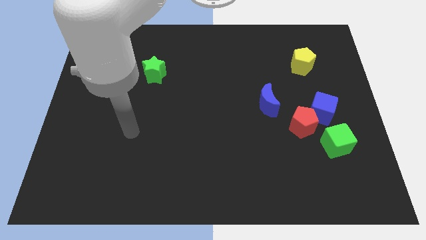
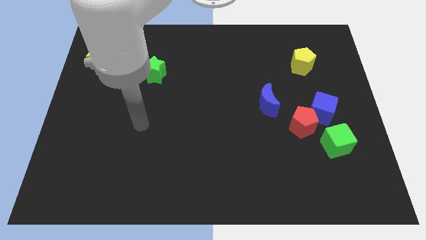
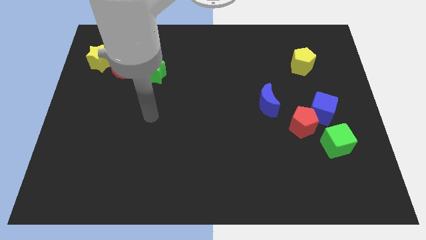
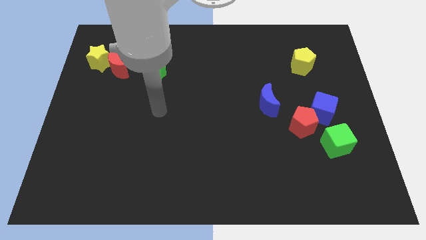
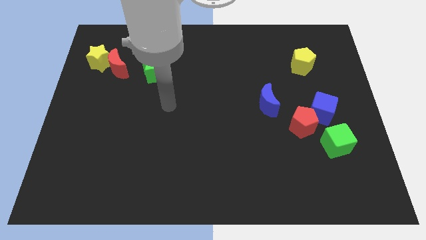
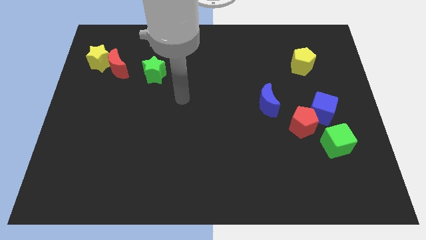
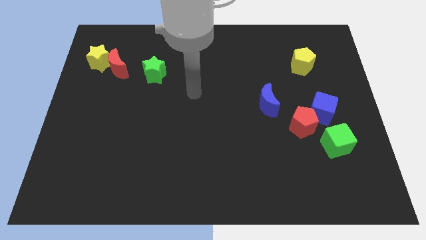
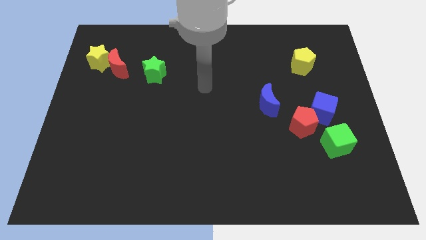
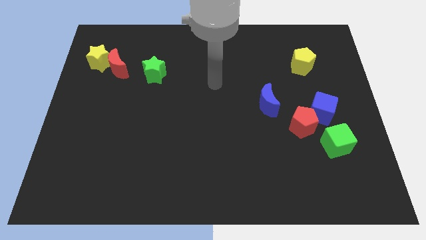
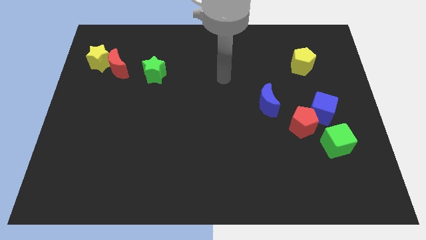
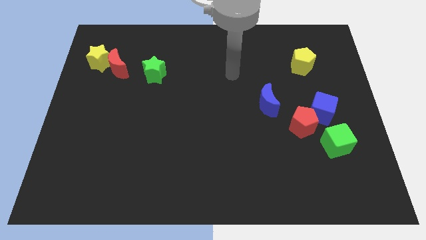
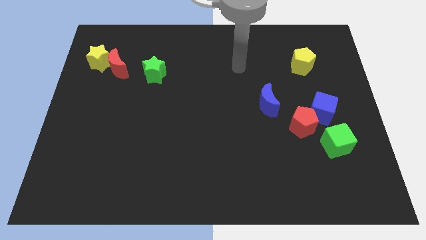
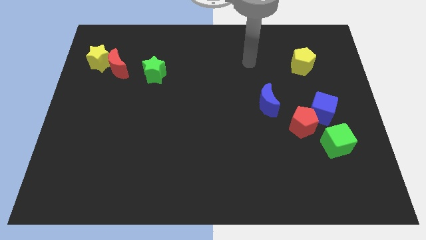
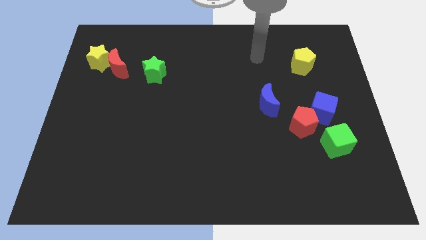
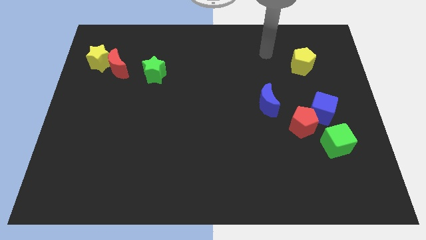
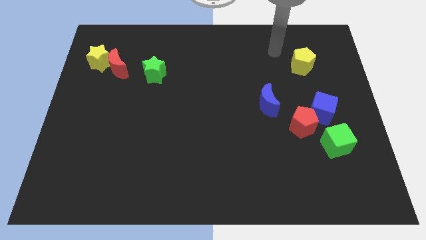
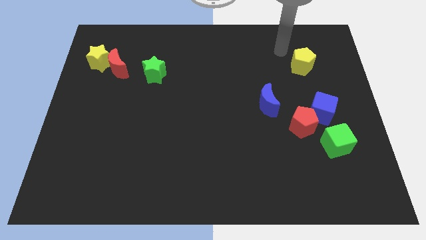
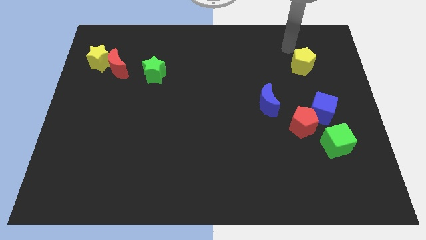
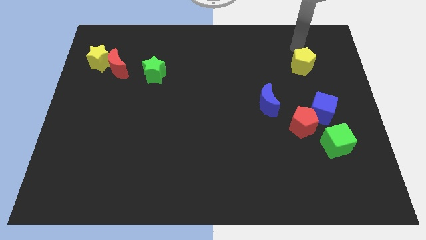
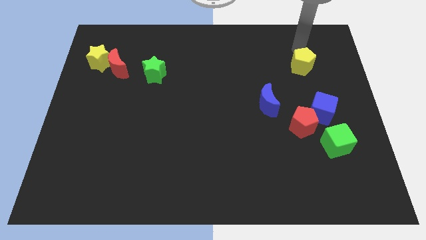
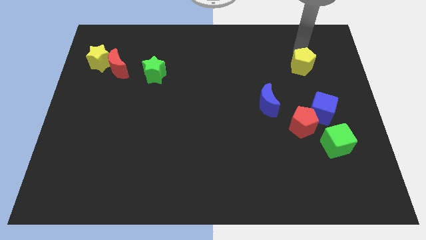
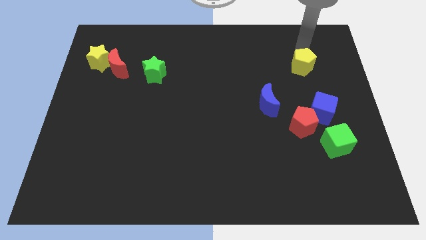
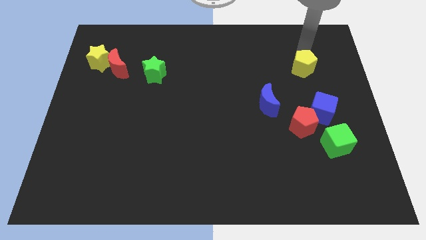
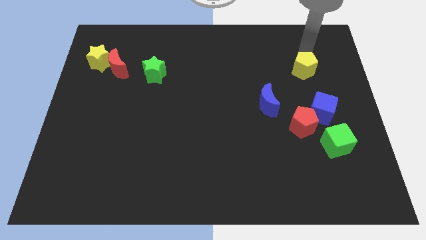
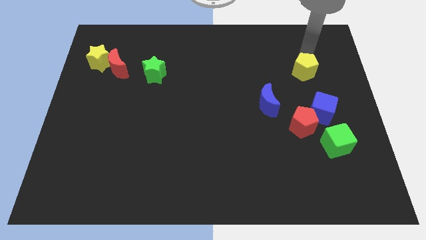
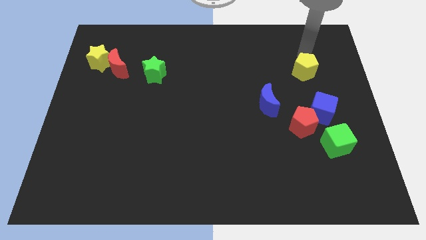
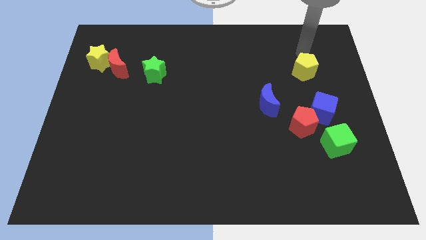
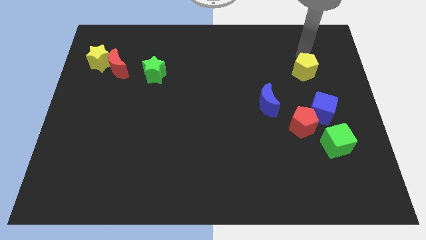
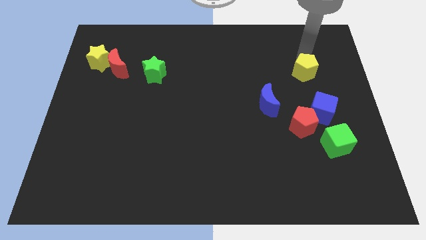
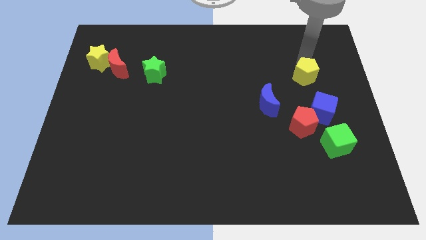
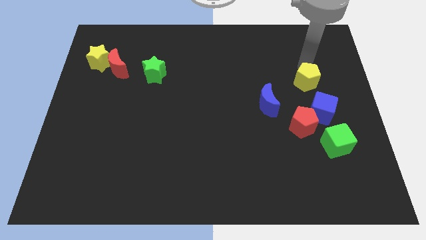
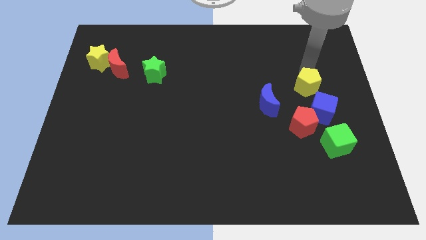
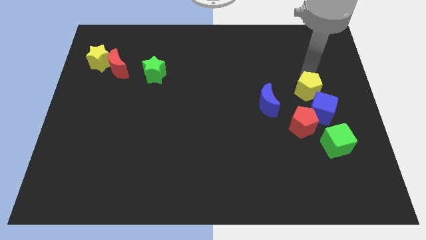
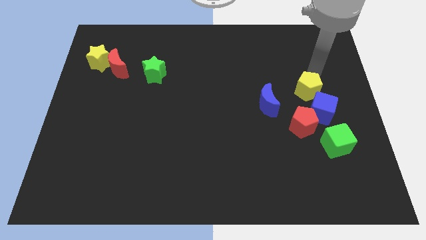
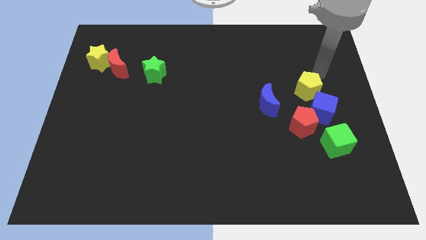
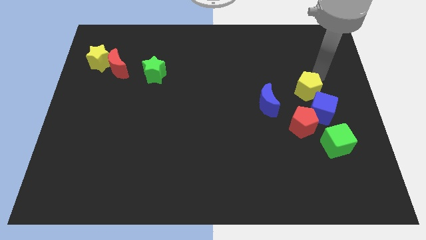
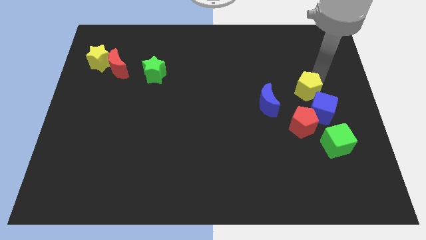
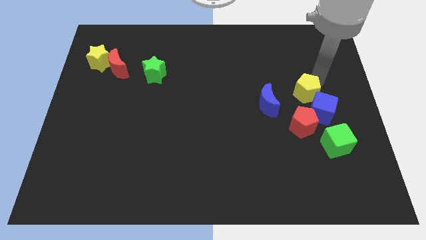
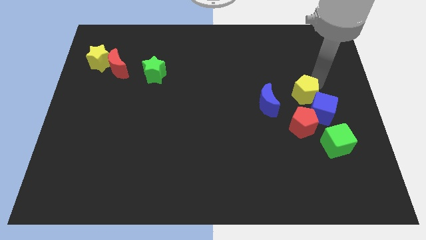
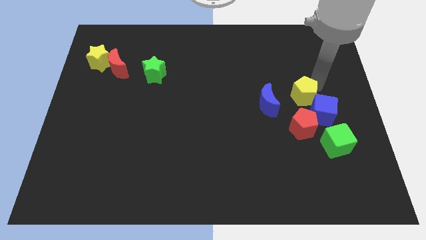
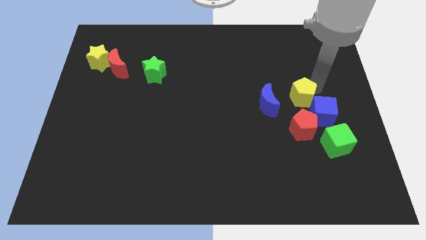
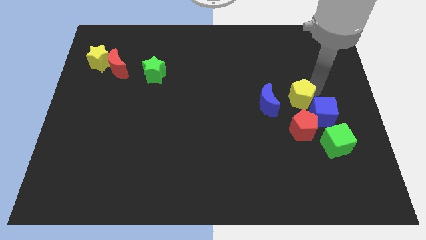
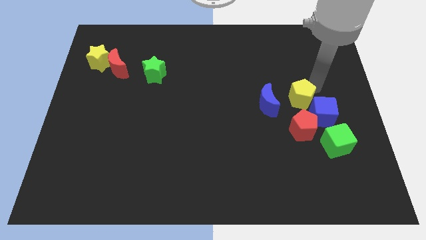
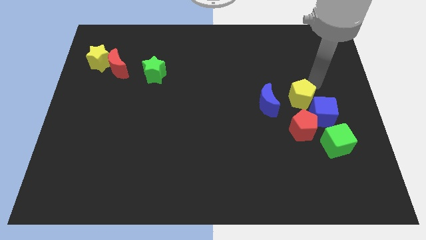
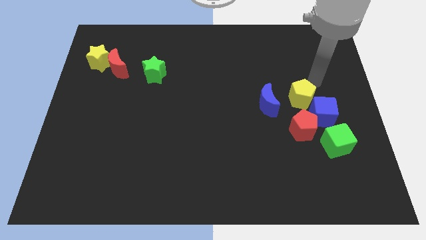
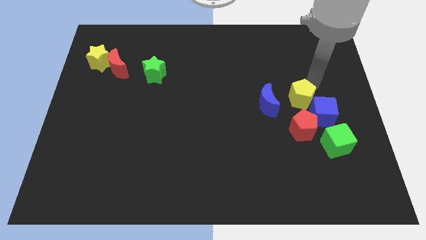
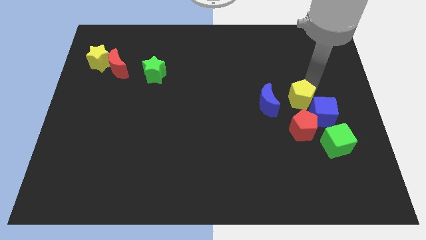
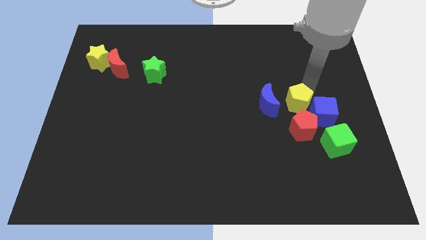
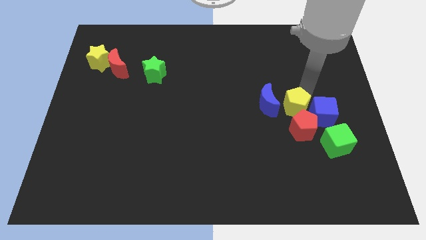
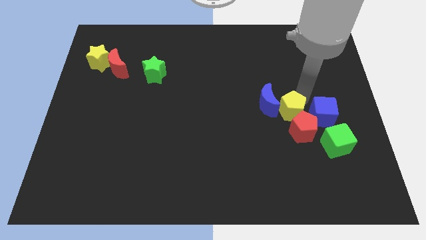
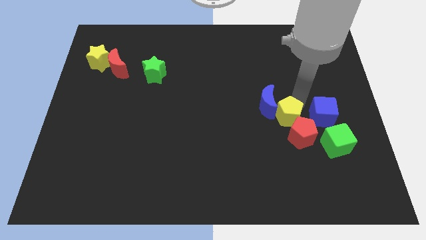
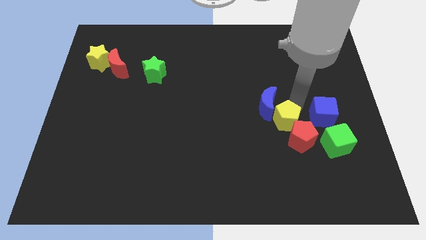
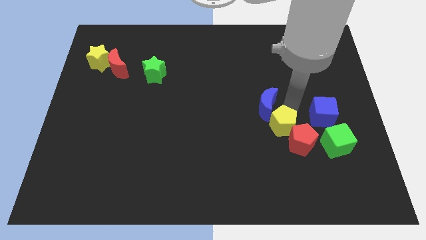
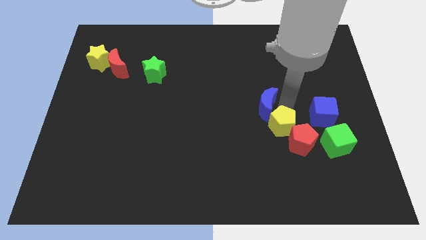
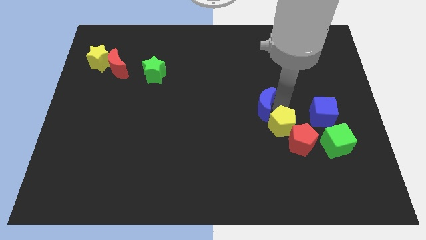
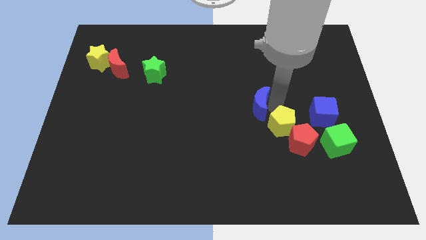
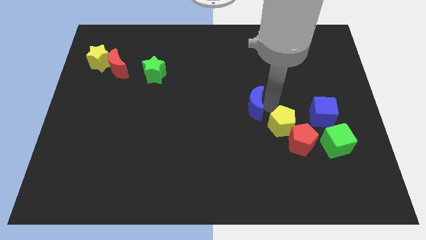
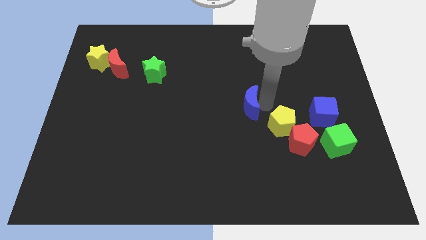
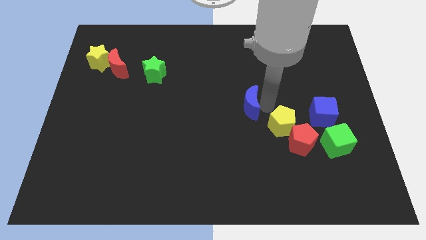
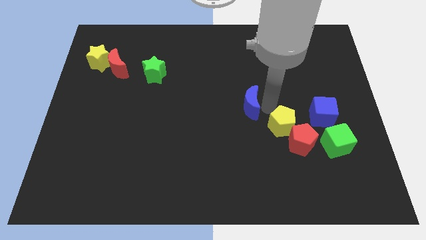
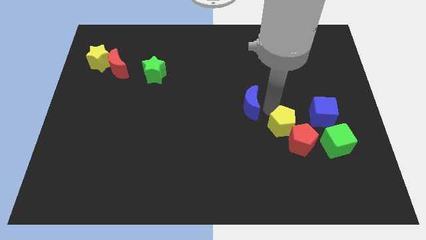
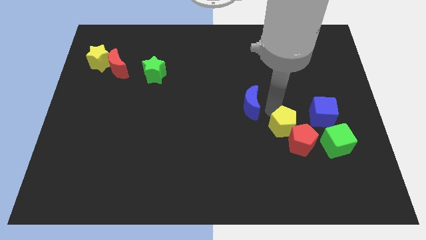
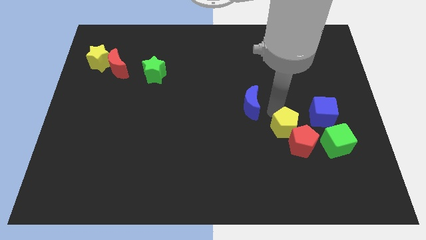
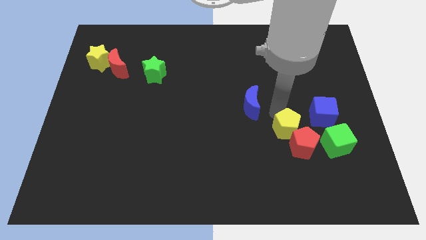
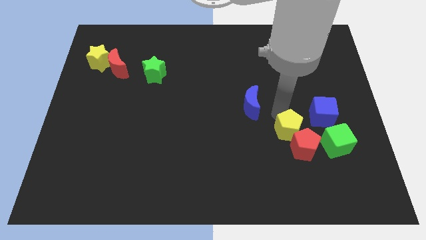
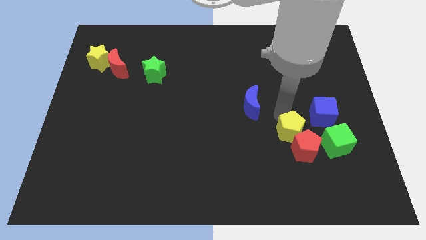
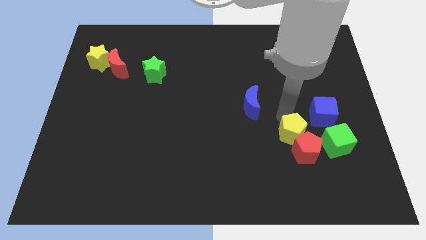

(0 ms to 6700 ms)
move the yellow pentagon down

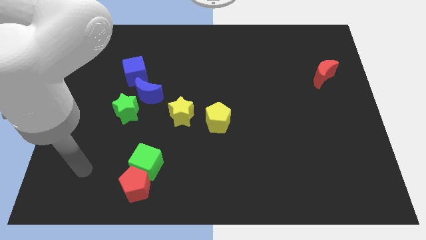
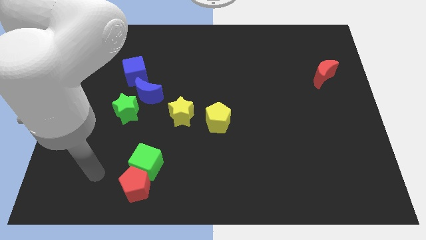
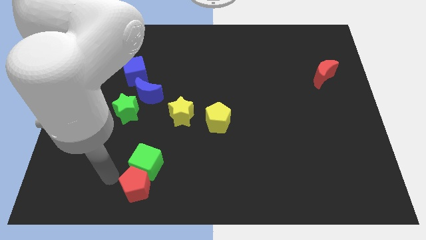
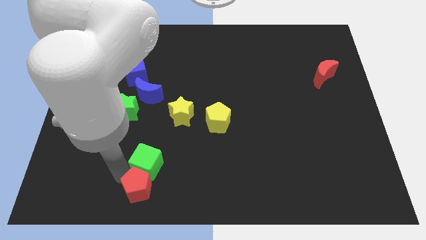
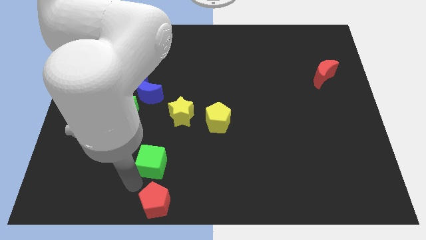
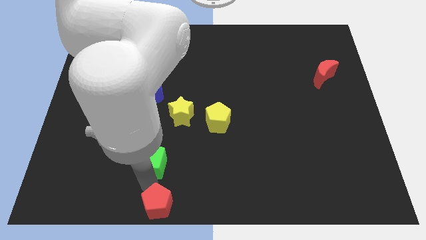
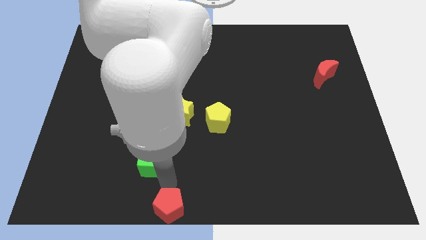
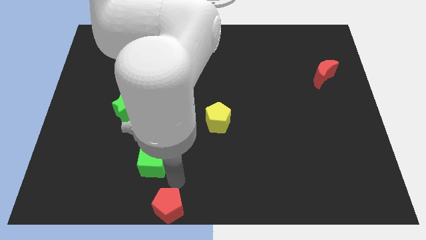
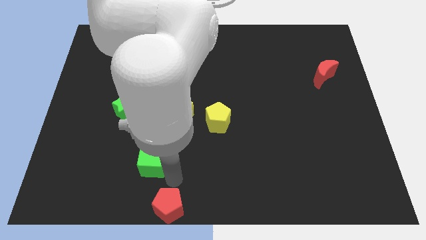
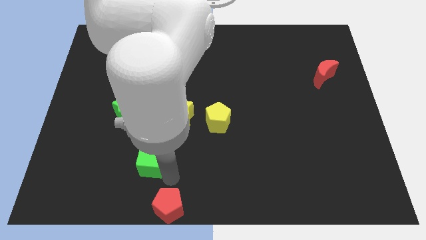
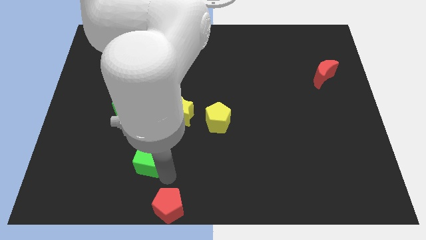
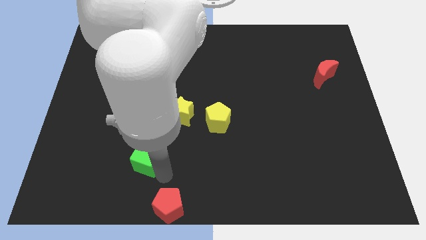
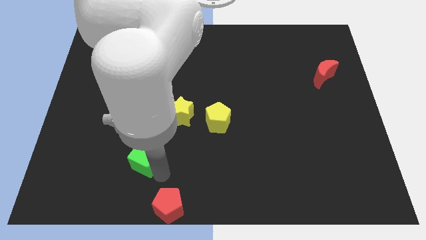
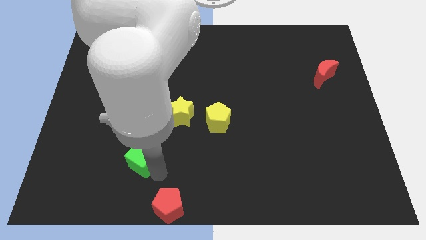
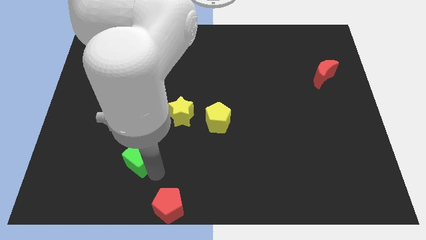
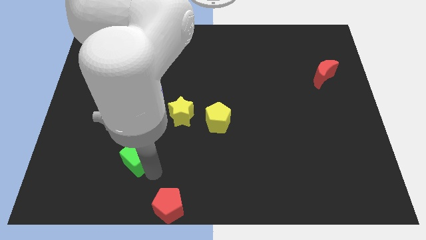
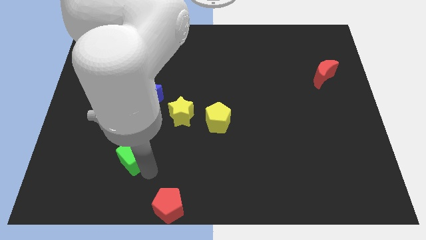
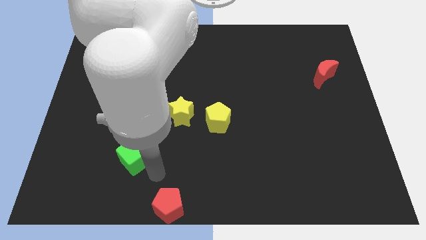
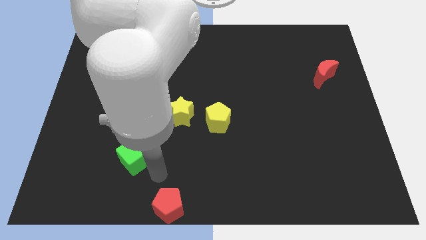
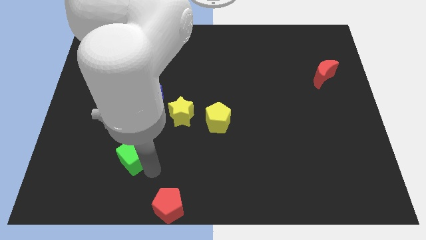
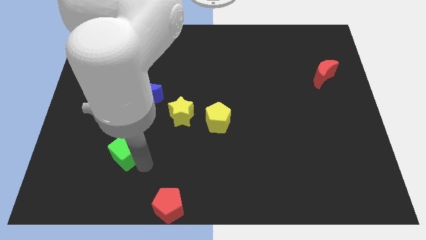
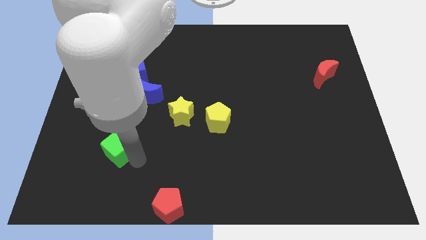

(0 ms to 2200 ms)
move the green cube somewhat up and to the left

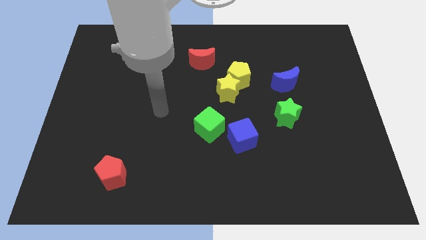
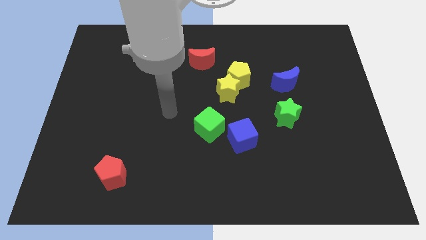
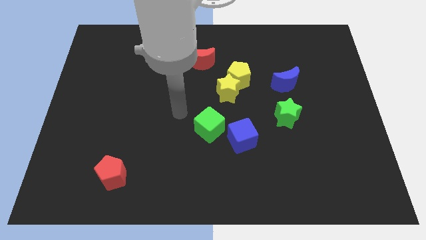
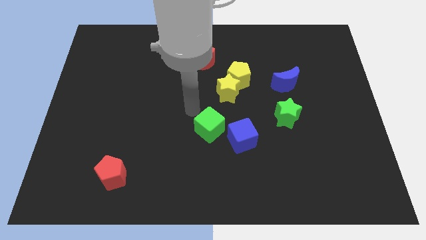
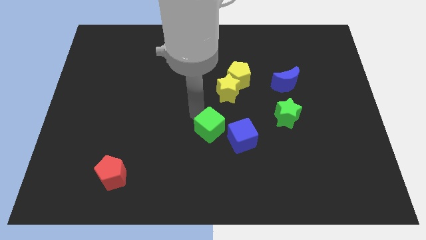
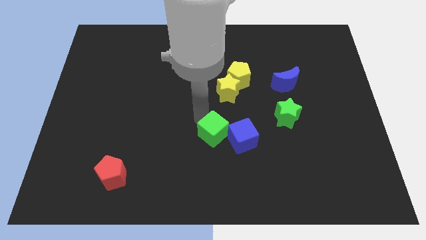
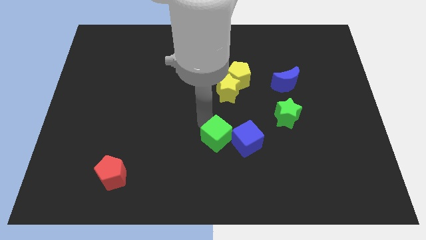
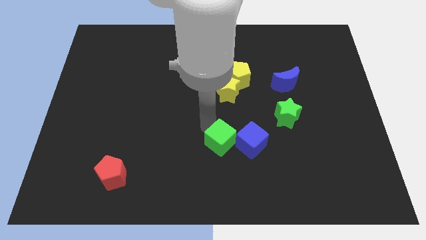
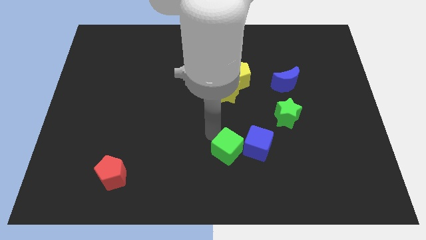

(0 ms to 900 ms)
move the green cube diagonally down and to the right a little bit
